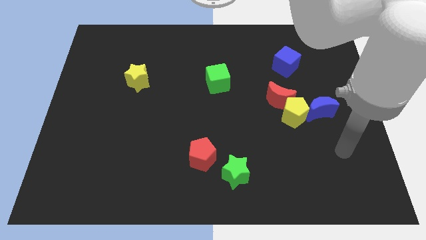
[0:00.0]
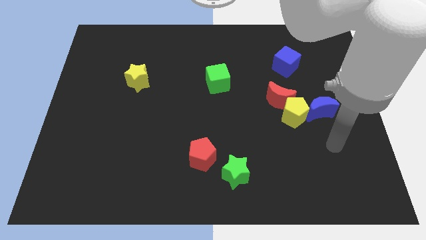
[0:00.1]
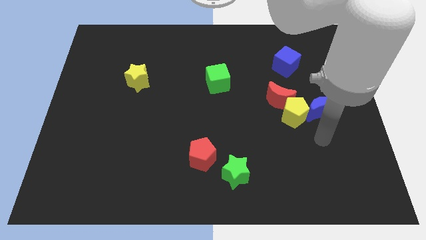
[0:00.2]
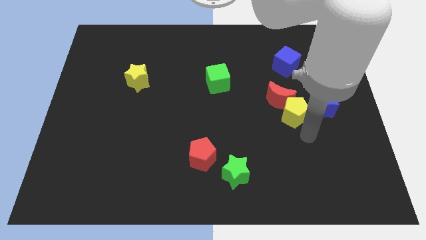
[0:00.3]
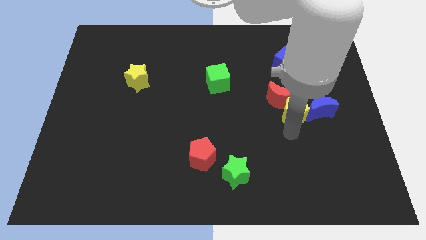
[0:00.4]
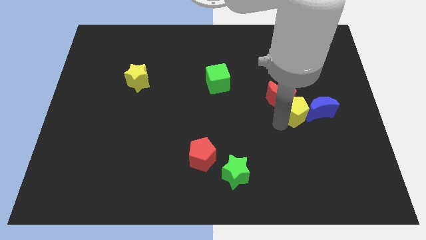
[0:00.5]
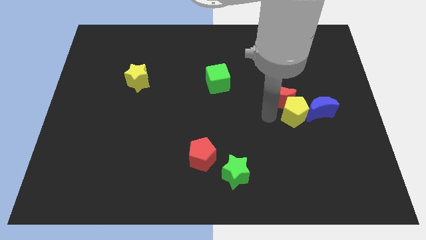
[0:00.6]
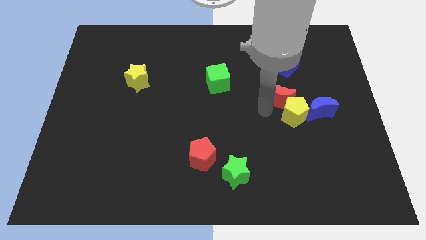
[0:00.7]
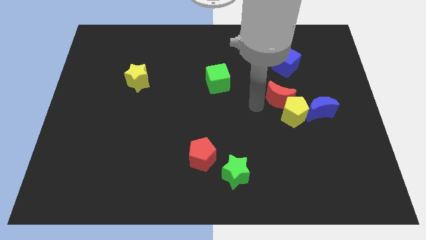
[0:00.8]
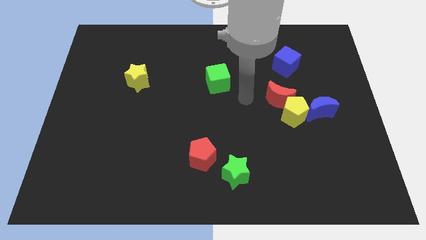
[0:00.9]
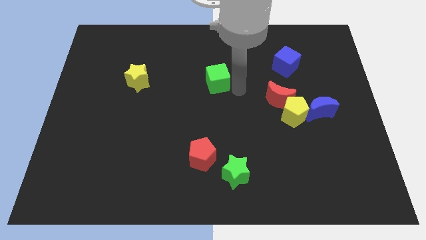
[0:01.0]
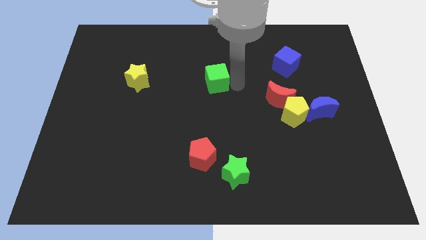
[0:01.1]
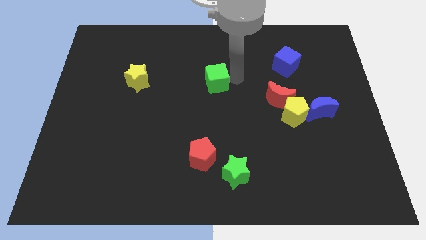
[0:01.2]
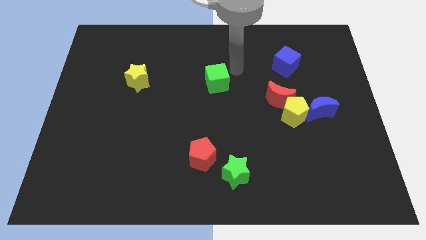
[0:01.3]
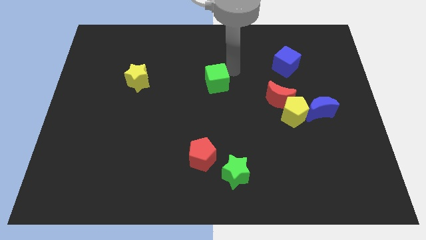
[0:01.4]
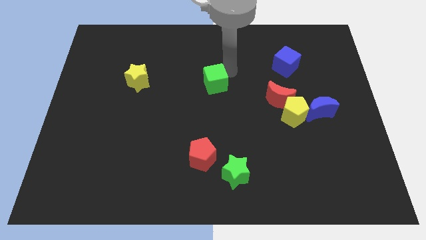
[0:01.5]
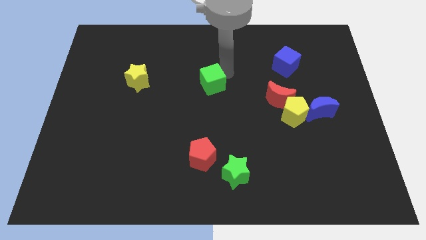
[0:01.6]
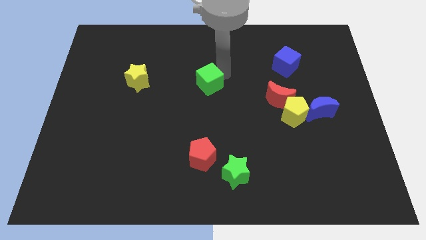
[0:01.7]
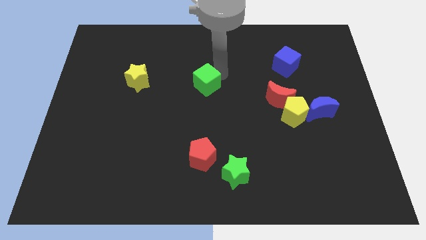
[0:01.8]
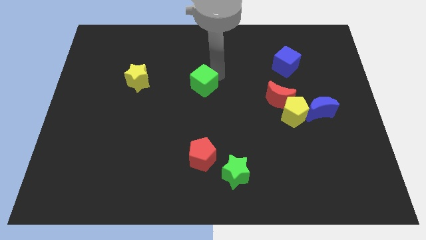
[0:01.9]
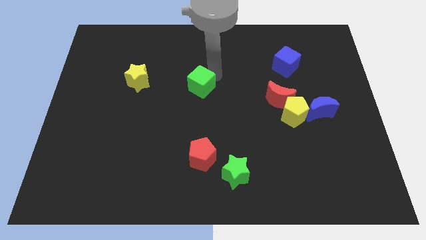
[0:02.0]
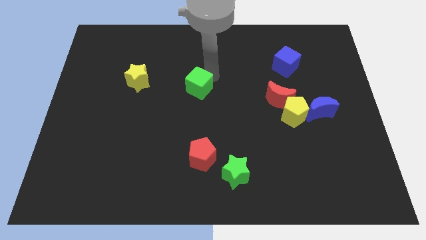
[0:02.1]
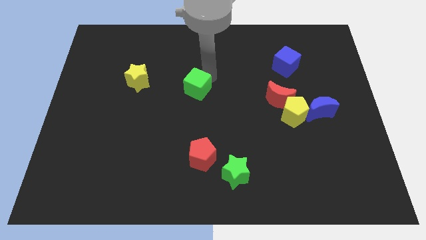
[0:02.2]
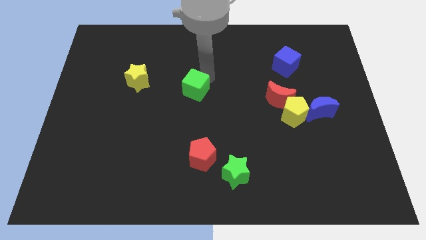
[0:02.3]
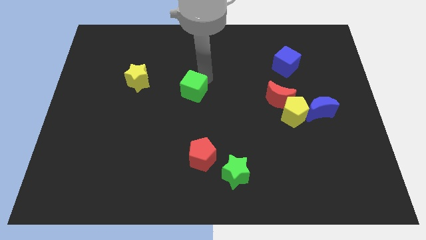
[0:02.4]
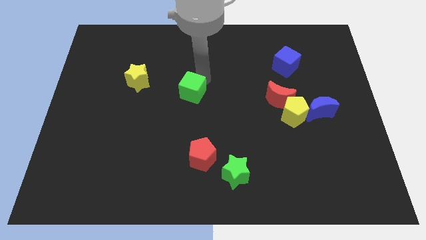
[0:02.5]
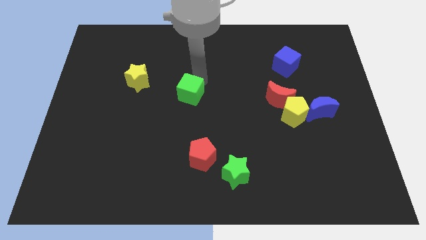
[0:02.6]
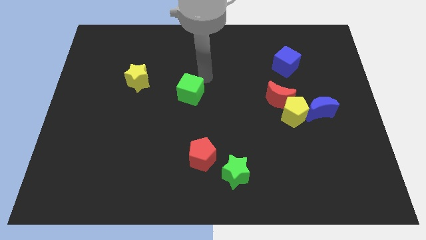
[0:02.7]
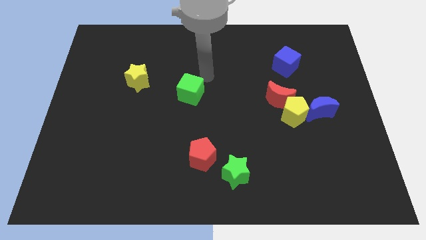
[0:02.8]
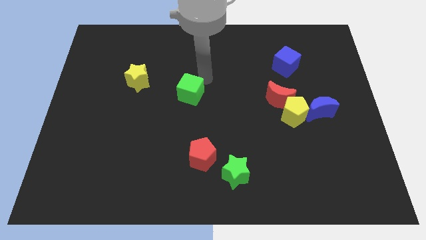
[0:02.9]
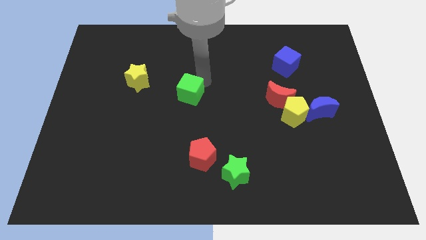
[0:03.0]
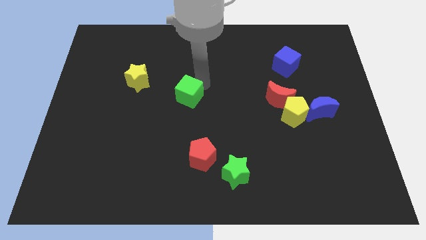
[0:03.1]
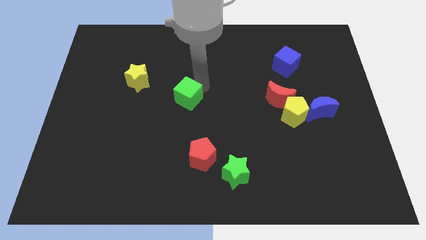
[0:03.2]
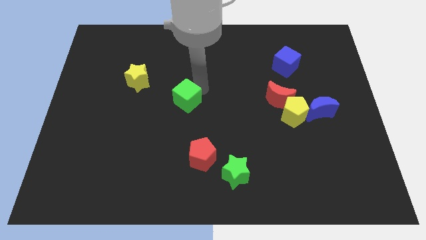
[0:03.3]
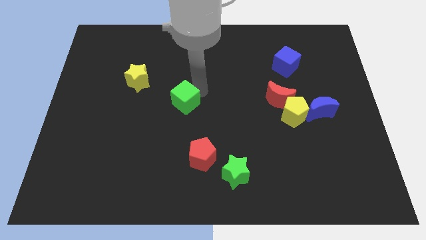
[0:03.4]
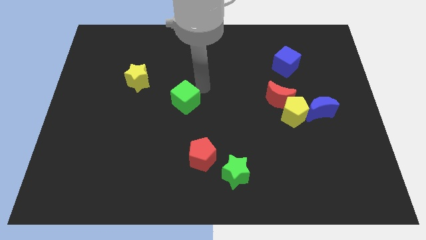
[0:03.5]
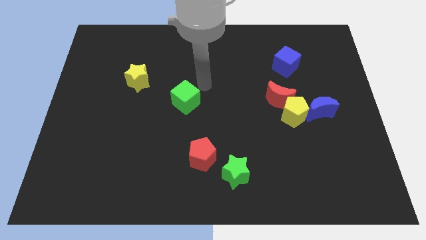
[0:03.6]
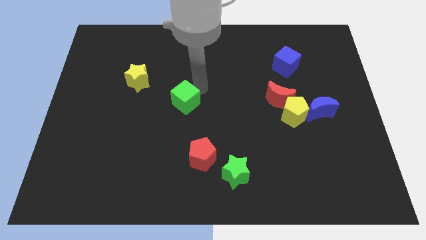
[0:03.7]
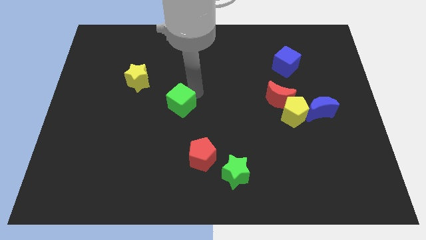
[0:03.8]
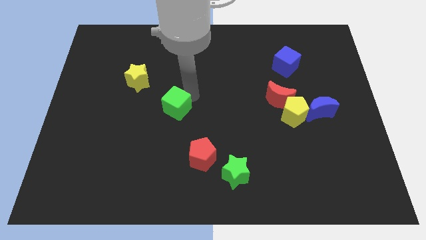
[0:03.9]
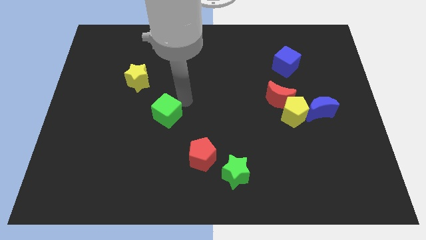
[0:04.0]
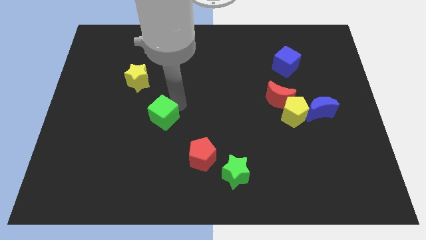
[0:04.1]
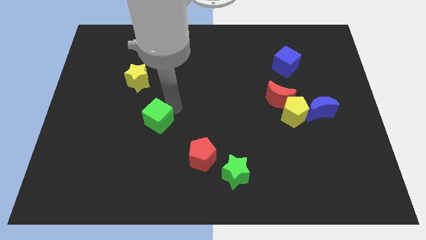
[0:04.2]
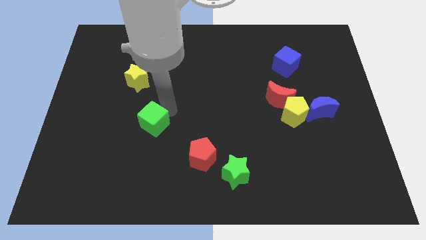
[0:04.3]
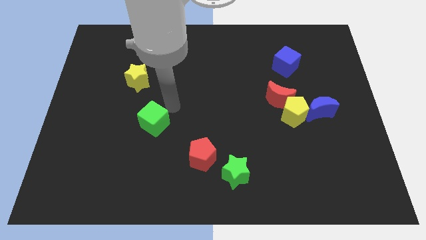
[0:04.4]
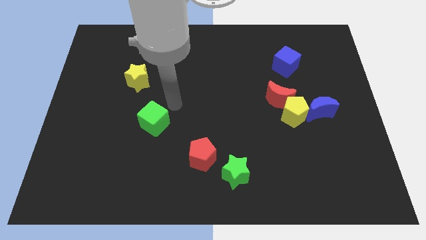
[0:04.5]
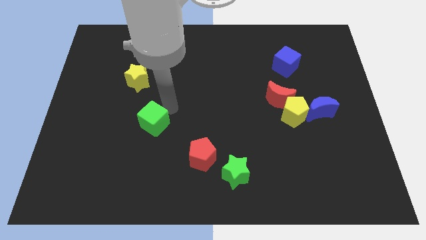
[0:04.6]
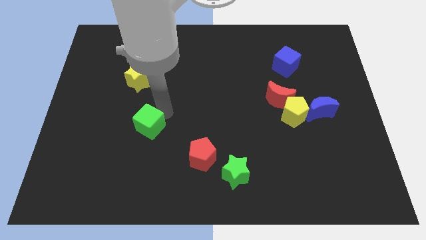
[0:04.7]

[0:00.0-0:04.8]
push the green cube downwards and to the left diagonally

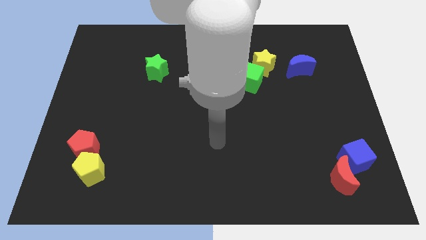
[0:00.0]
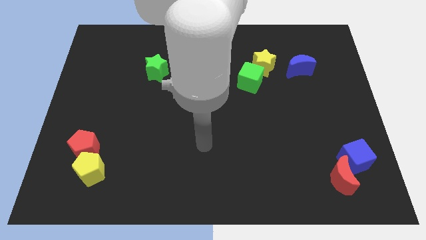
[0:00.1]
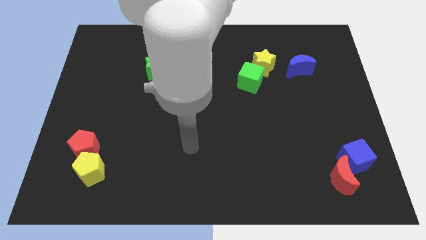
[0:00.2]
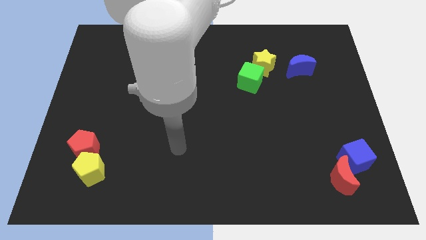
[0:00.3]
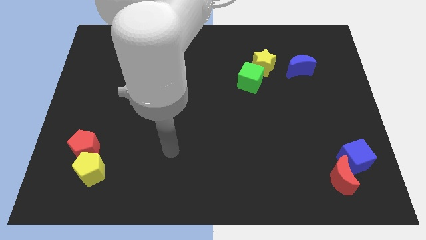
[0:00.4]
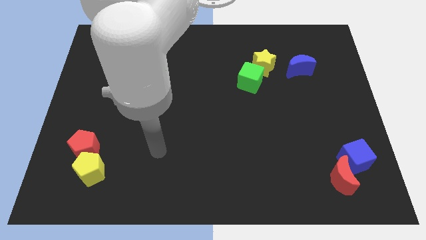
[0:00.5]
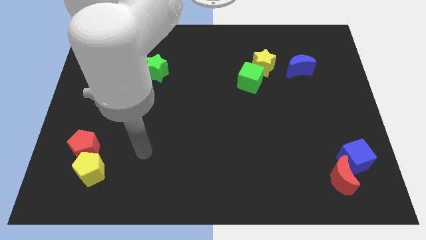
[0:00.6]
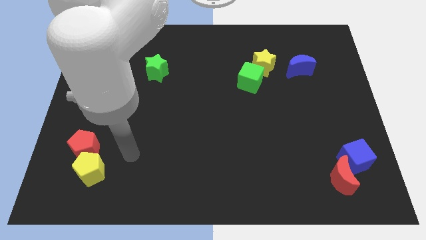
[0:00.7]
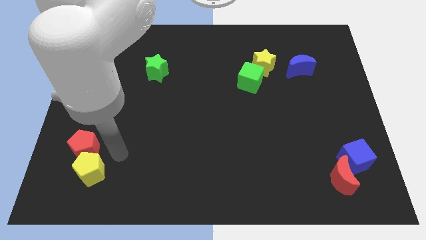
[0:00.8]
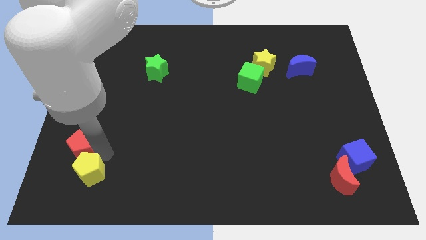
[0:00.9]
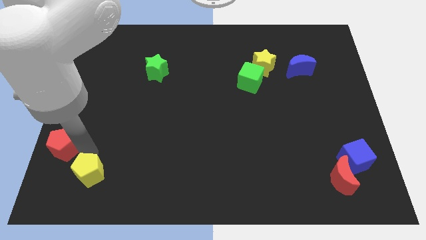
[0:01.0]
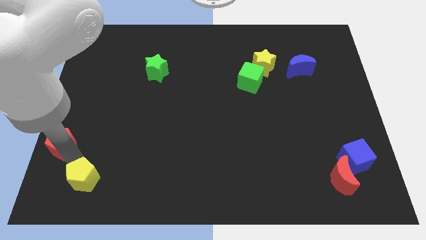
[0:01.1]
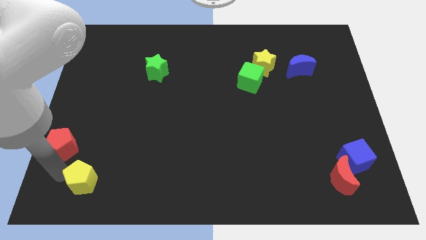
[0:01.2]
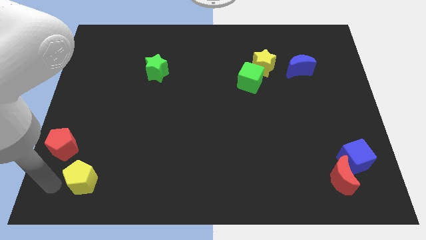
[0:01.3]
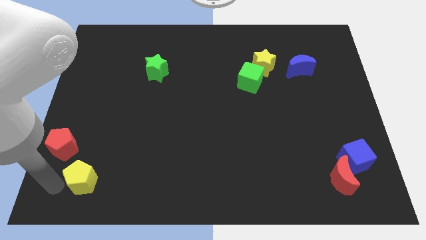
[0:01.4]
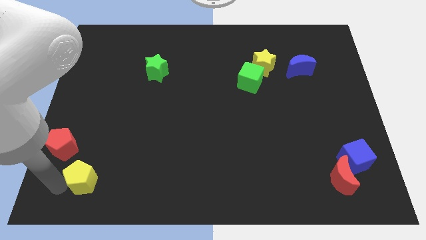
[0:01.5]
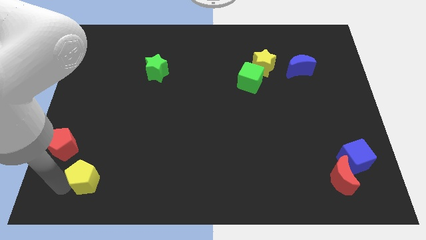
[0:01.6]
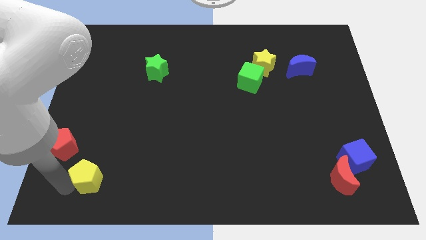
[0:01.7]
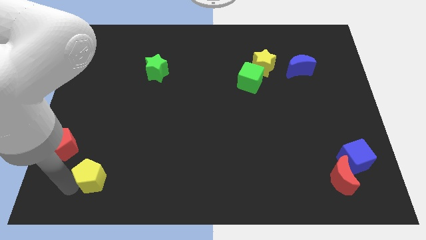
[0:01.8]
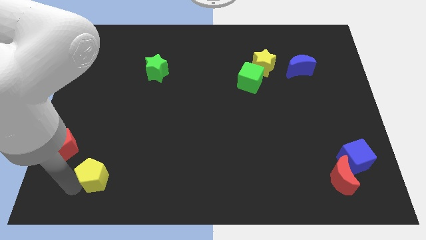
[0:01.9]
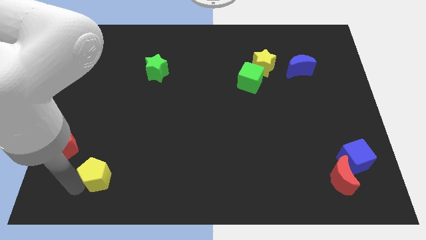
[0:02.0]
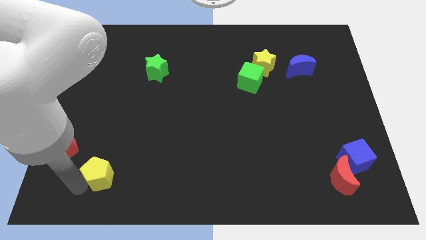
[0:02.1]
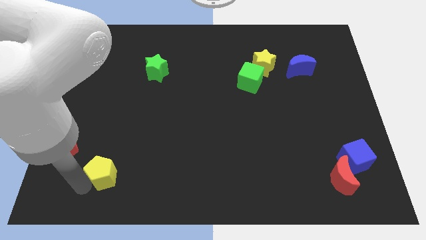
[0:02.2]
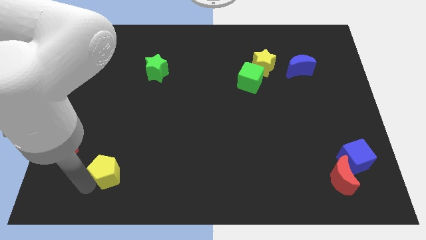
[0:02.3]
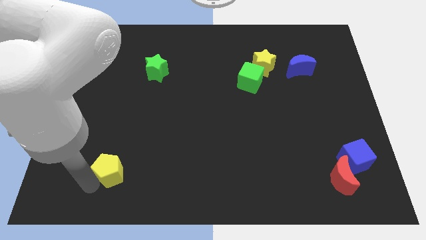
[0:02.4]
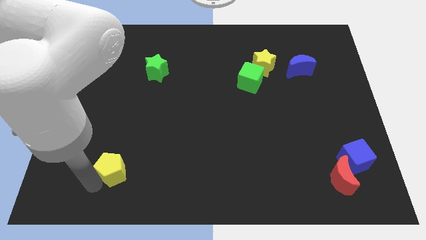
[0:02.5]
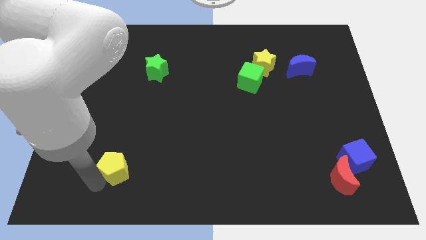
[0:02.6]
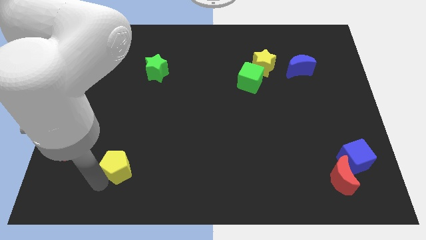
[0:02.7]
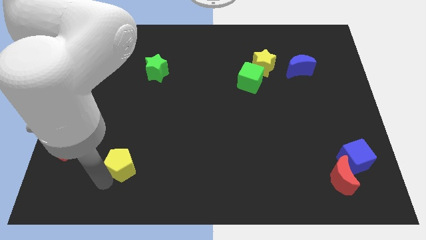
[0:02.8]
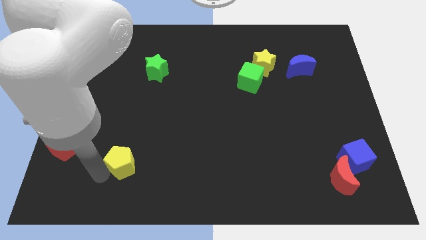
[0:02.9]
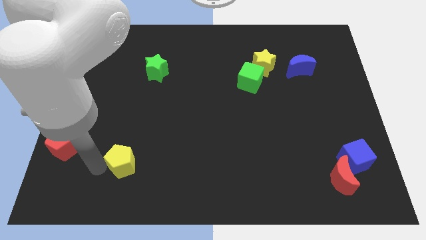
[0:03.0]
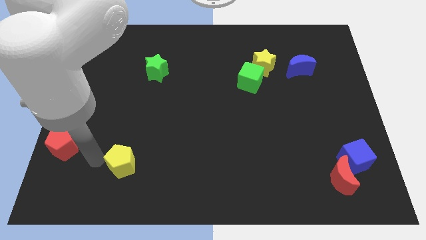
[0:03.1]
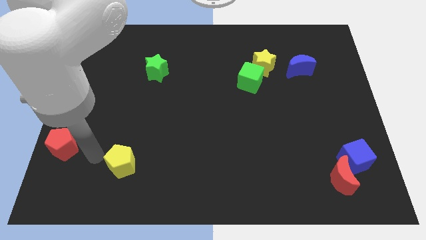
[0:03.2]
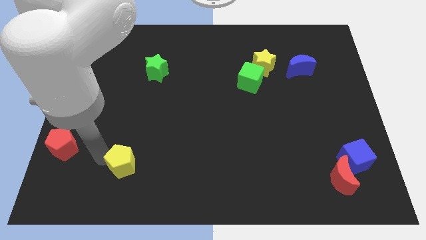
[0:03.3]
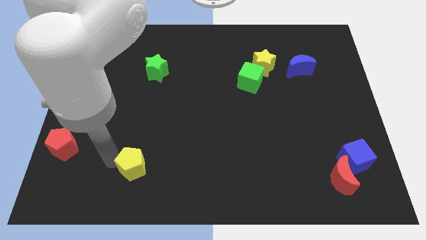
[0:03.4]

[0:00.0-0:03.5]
slightly move the yellow pentagon right
